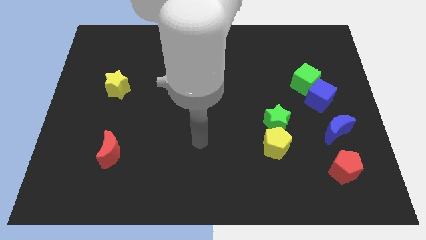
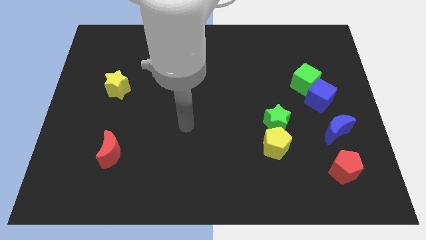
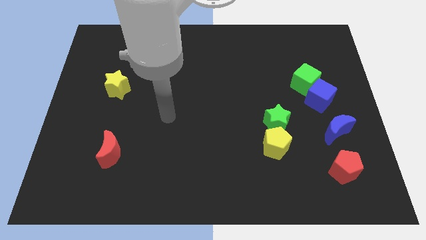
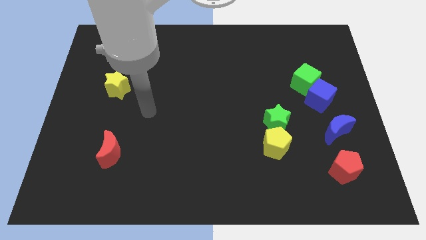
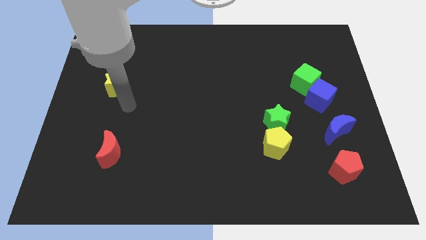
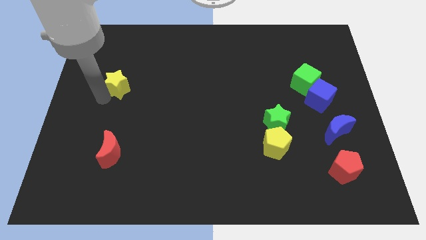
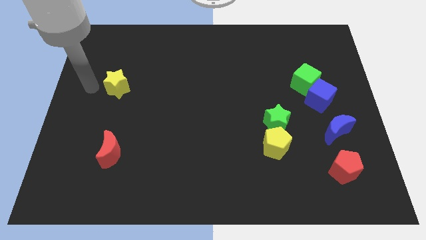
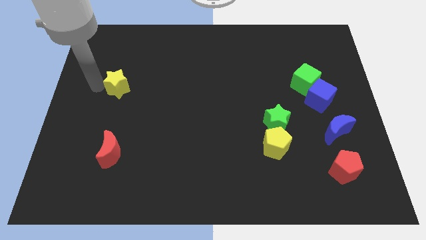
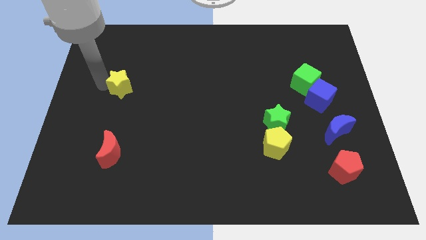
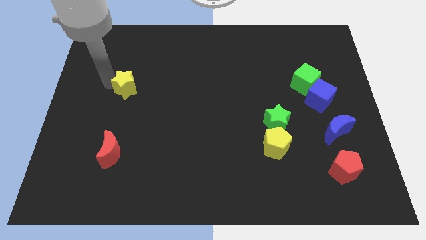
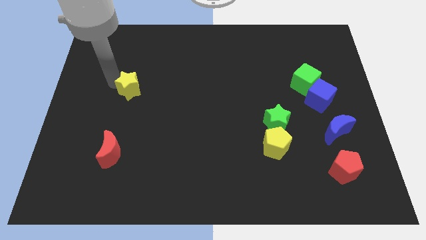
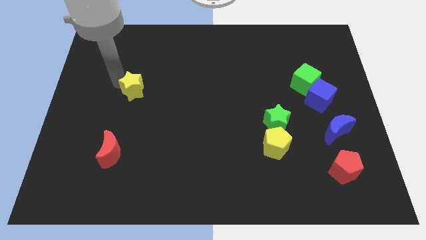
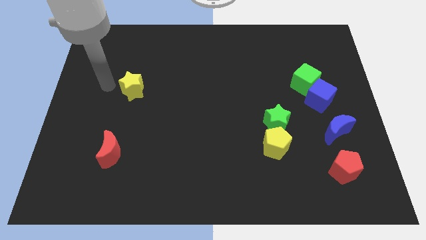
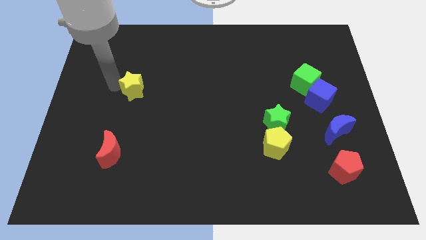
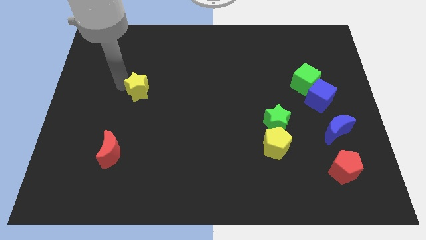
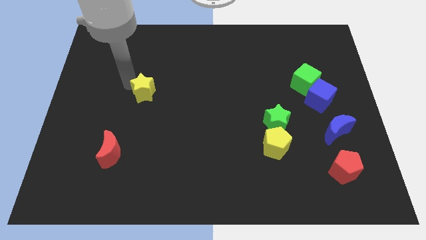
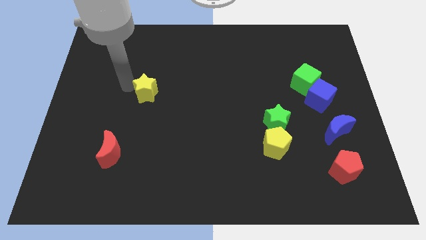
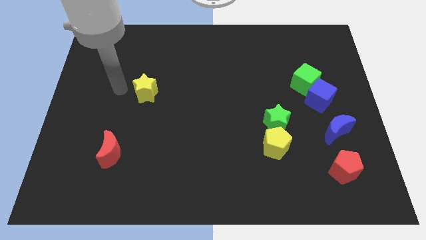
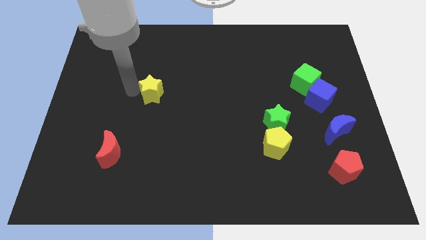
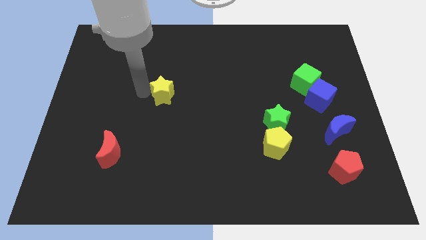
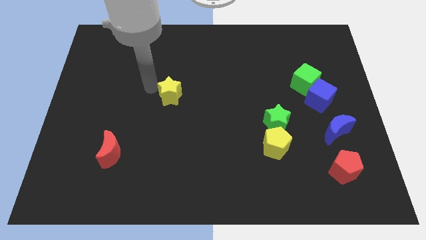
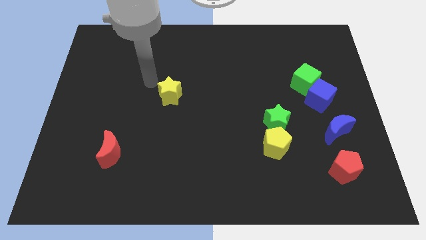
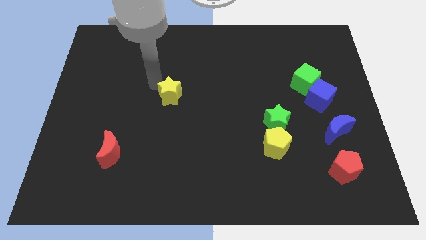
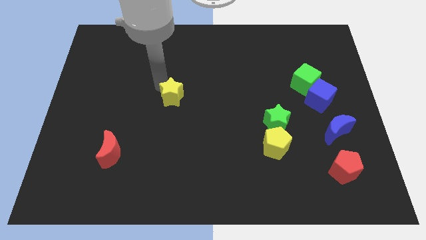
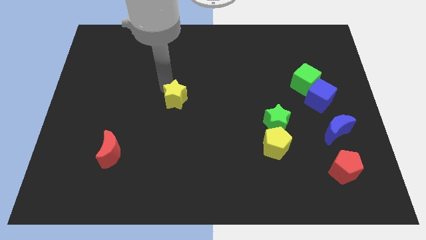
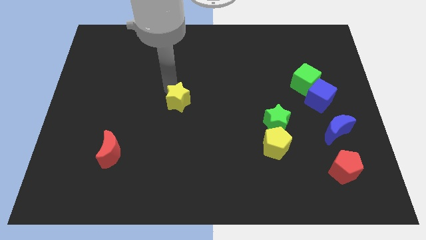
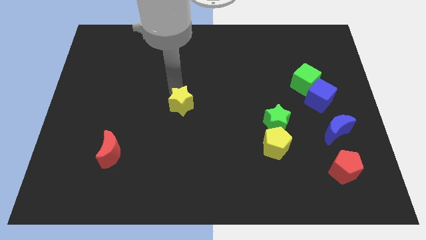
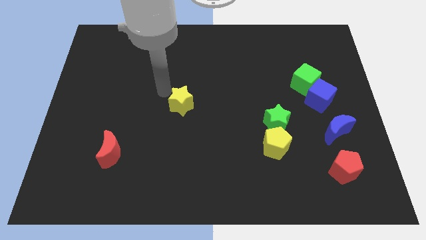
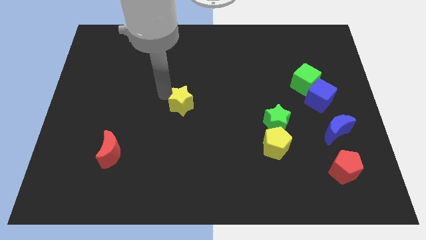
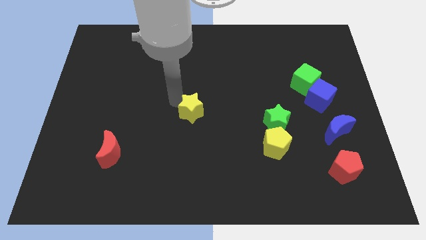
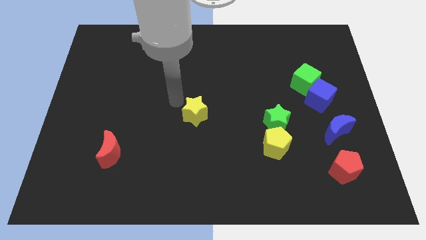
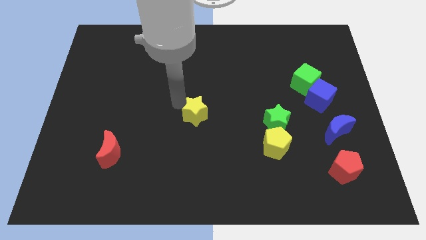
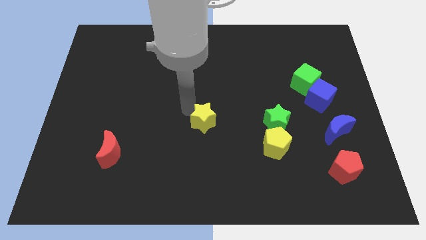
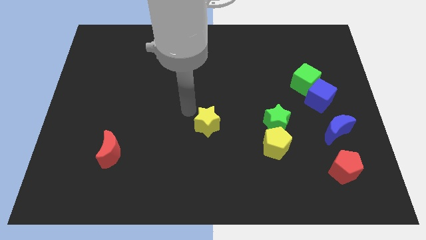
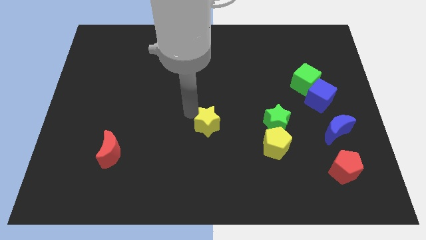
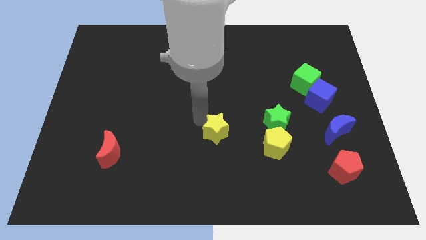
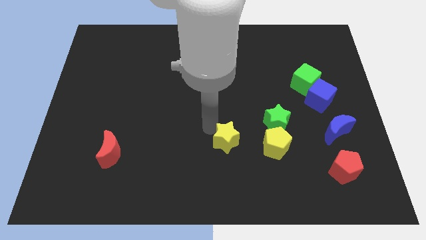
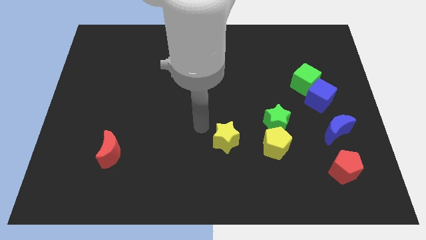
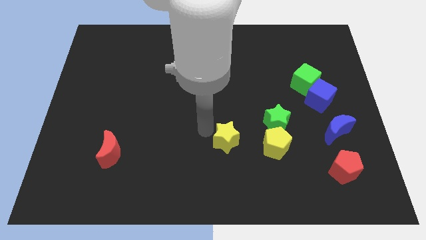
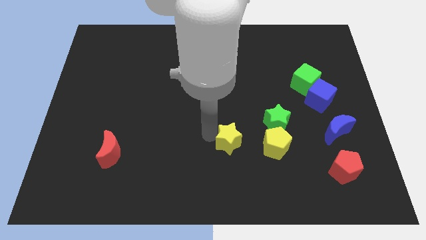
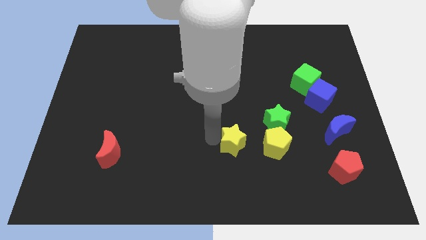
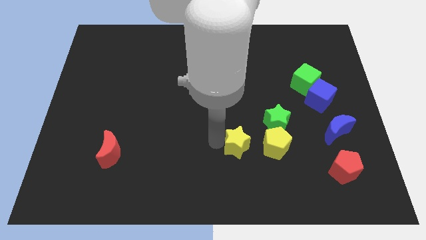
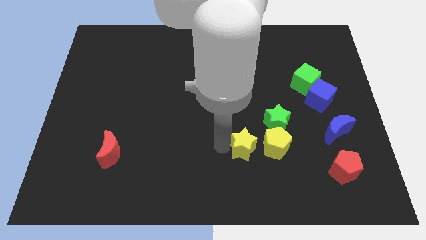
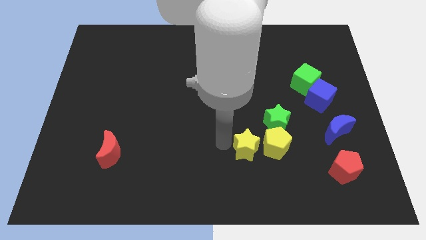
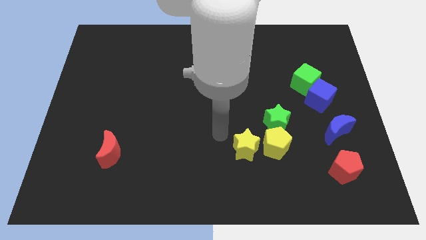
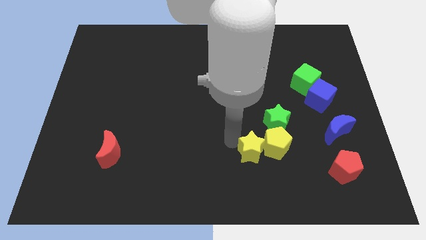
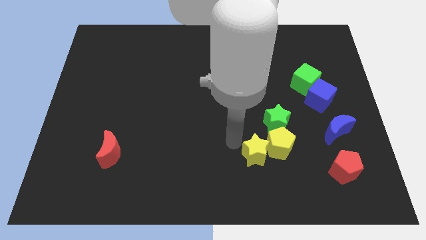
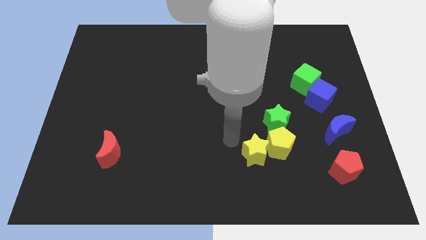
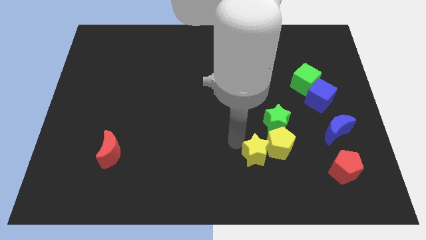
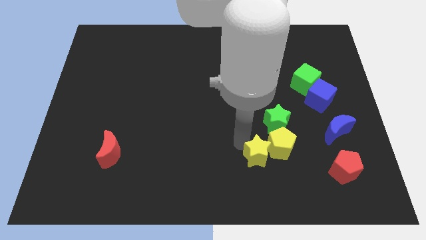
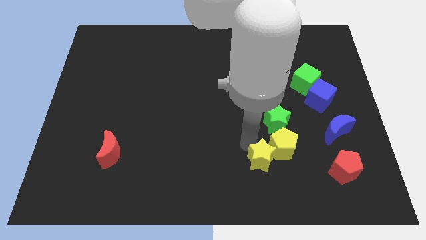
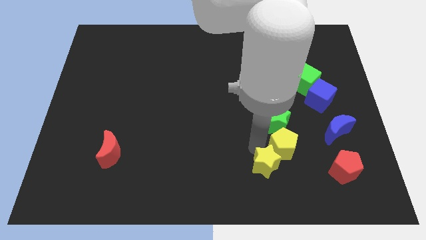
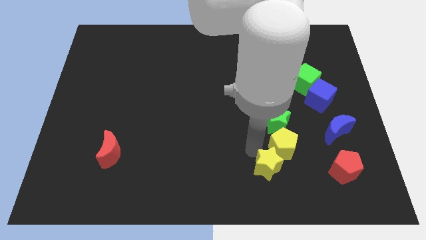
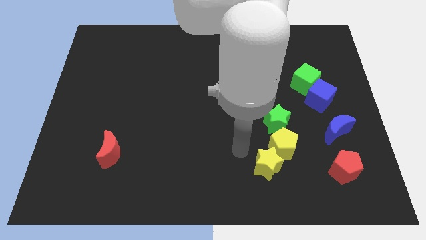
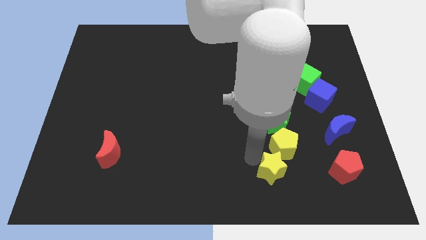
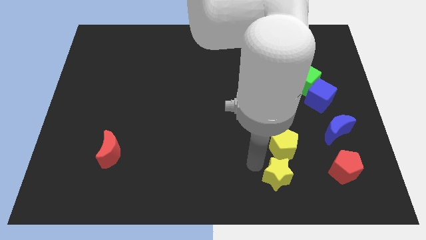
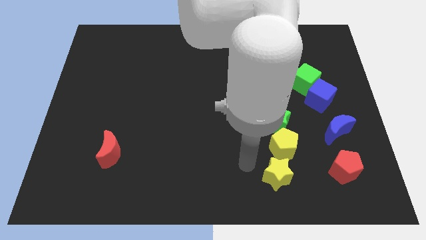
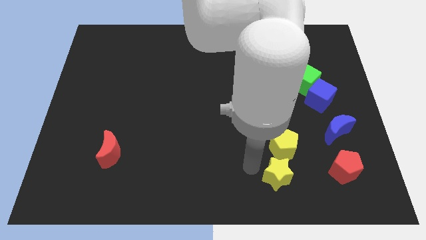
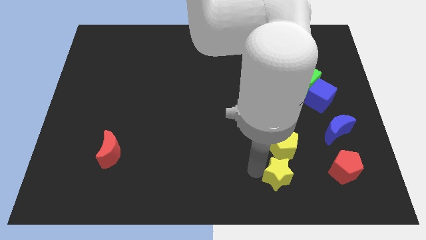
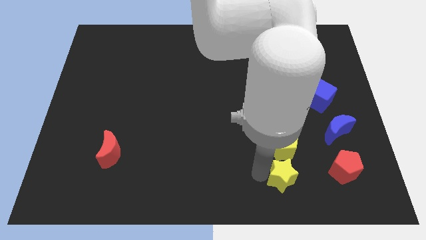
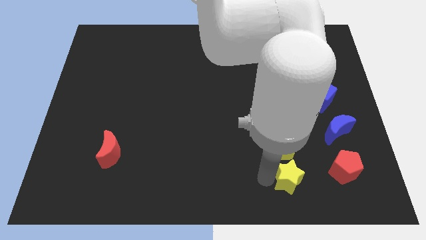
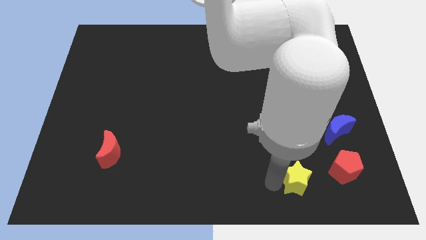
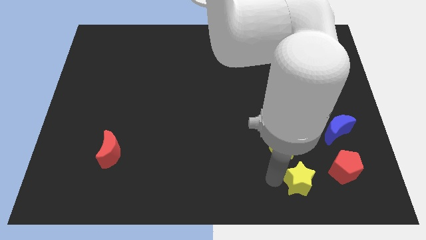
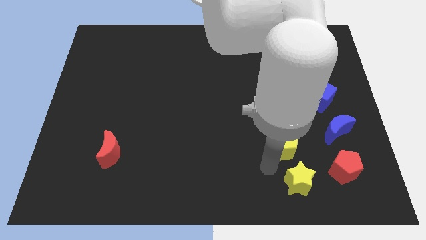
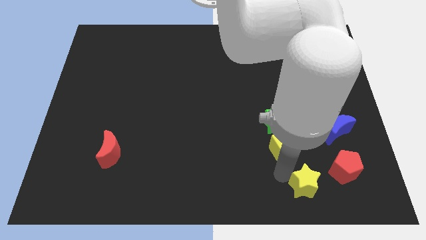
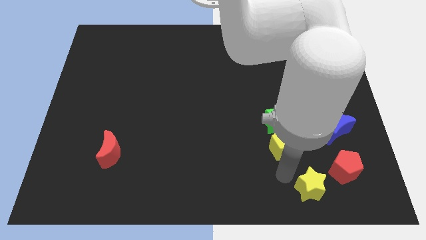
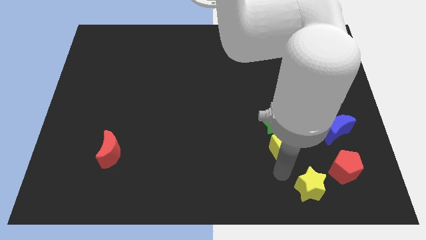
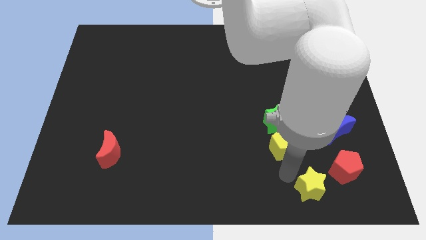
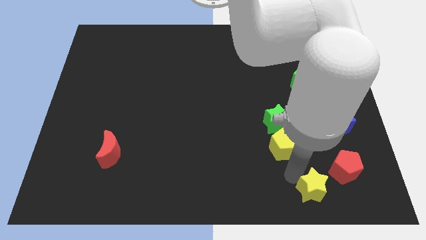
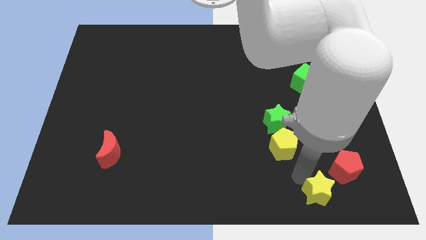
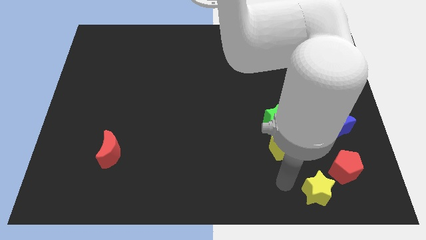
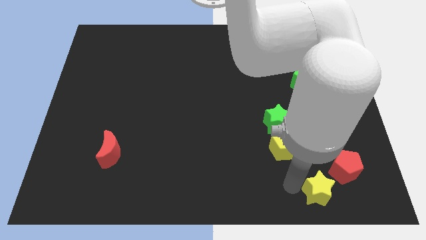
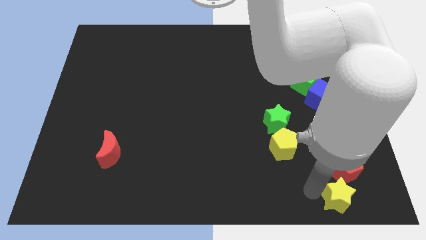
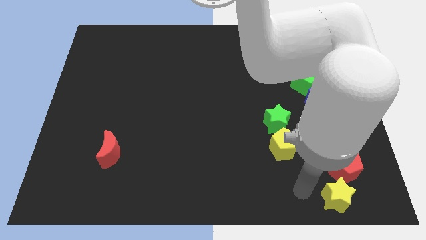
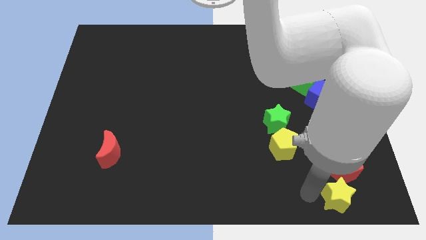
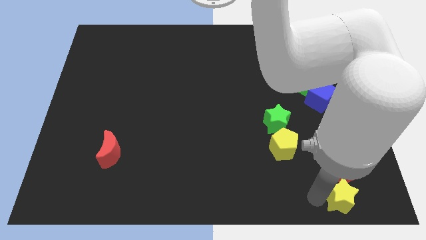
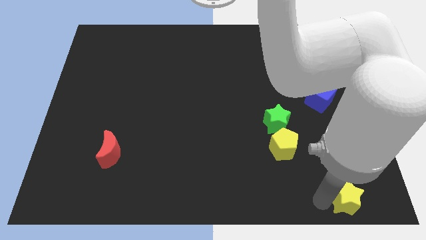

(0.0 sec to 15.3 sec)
put the yellow star to the lower right corner

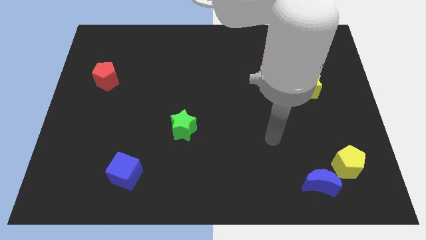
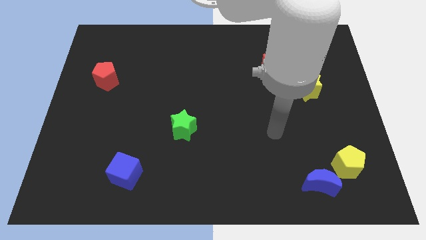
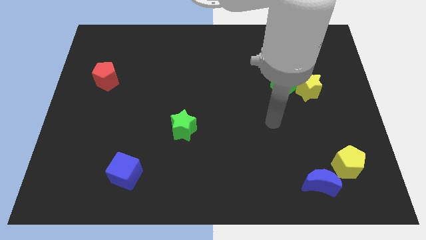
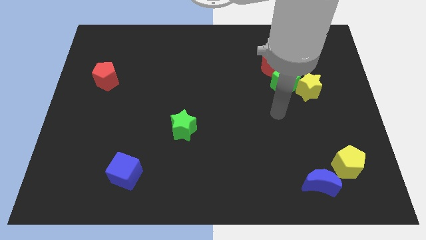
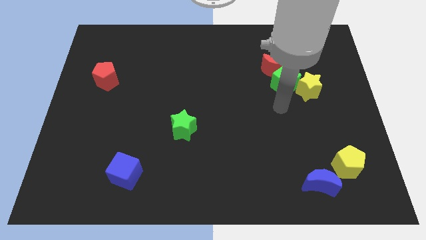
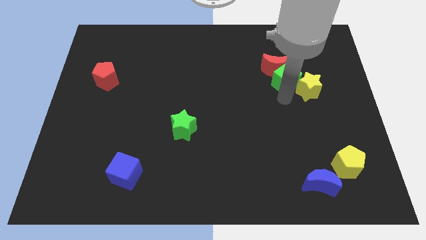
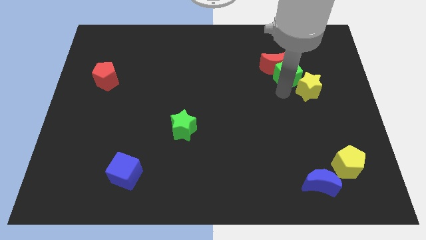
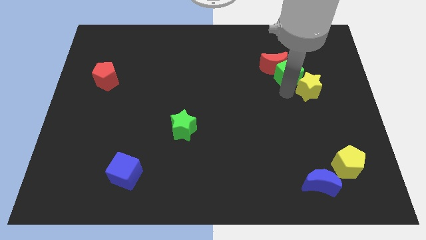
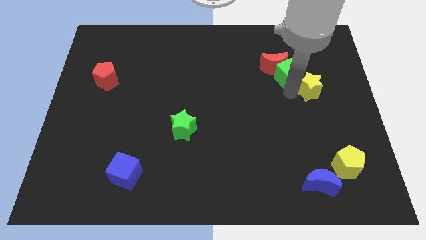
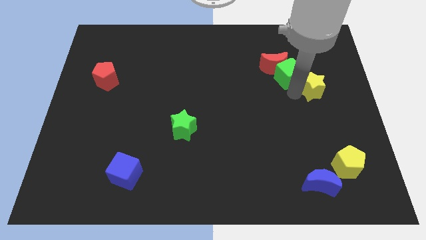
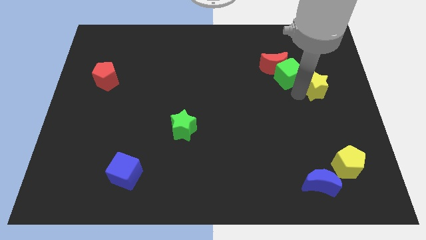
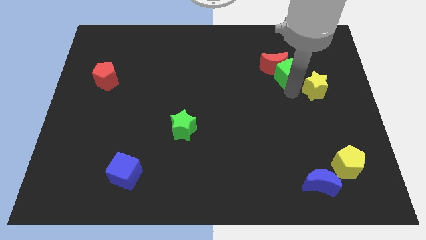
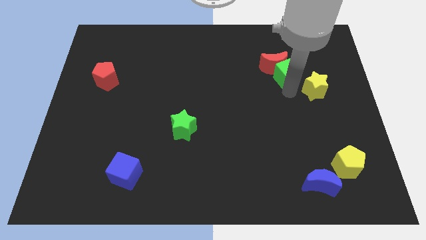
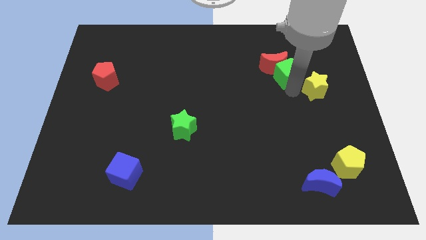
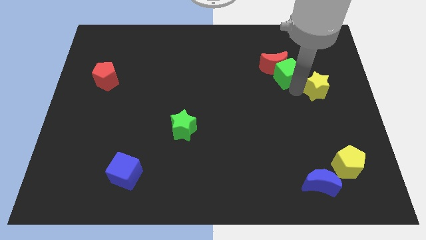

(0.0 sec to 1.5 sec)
slide the yellow star to the right side of the board
